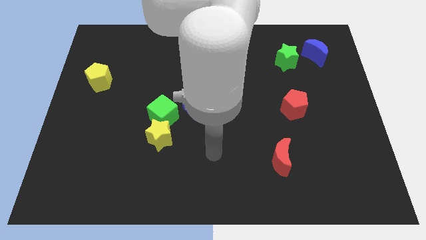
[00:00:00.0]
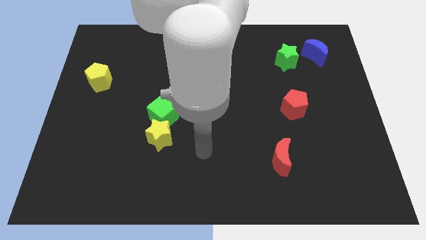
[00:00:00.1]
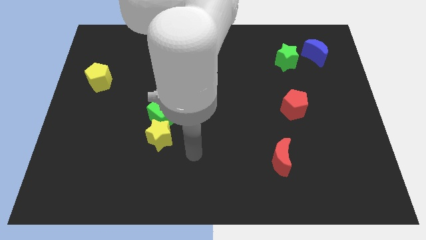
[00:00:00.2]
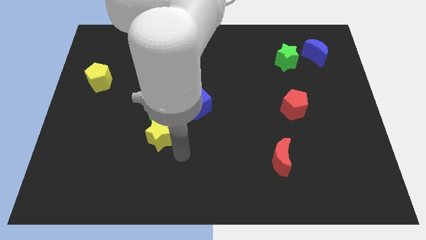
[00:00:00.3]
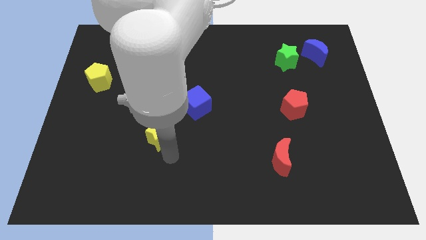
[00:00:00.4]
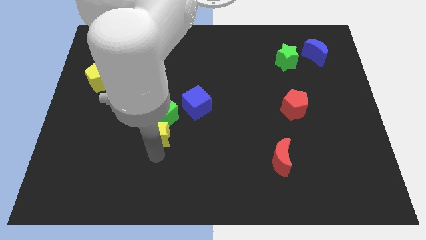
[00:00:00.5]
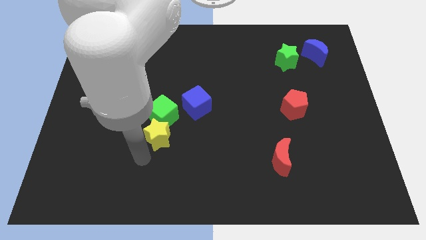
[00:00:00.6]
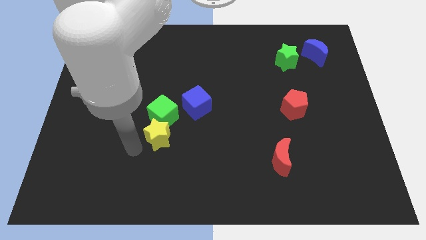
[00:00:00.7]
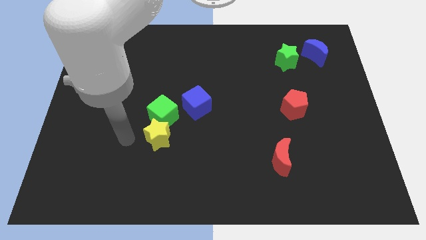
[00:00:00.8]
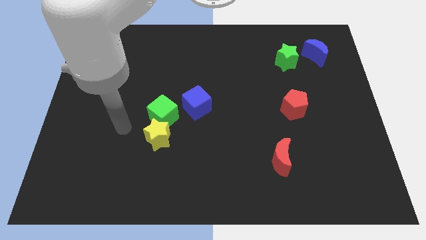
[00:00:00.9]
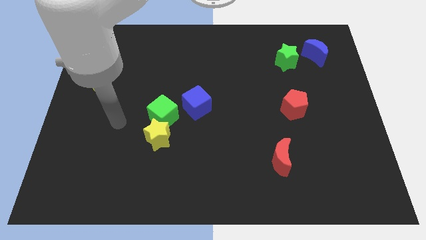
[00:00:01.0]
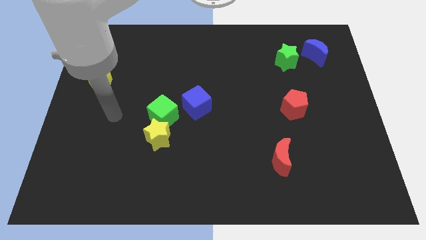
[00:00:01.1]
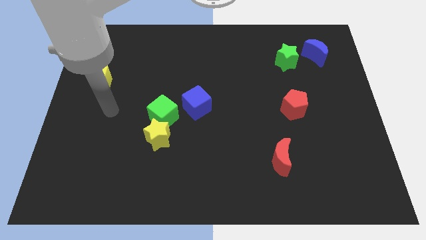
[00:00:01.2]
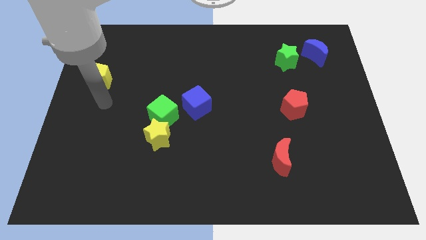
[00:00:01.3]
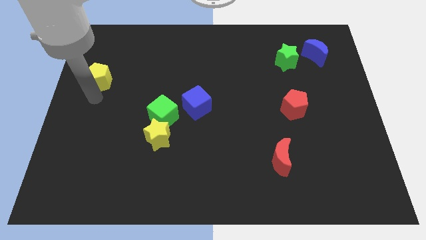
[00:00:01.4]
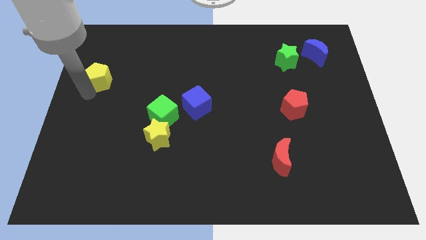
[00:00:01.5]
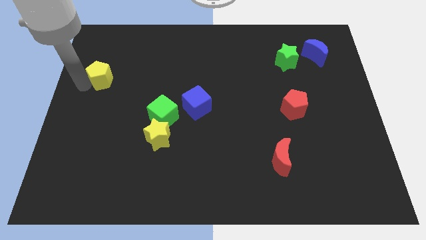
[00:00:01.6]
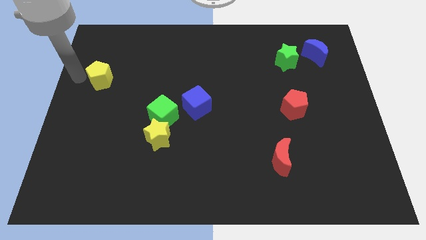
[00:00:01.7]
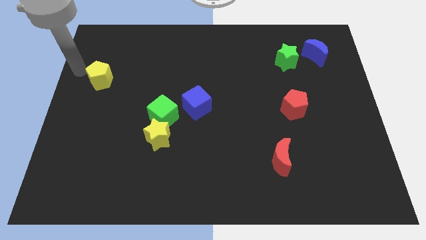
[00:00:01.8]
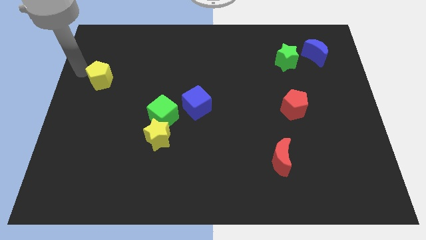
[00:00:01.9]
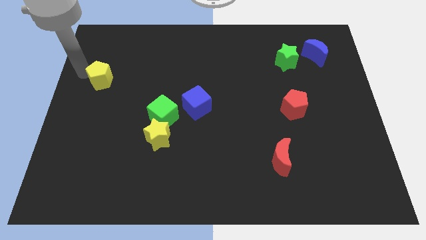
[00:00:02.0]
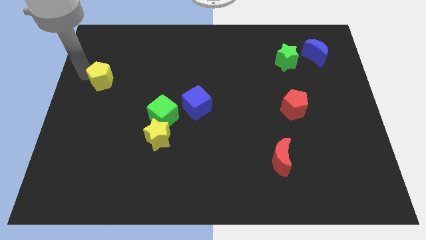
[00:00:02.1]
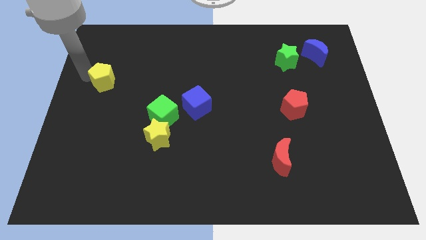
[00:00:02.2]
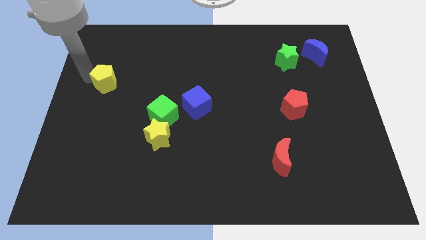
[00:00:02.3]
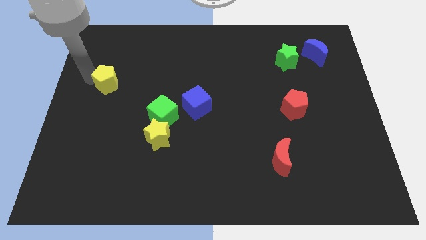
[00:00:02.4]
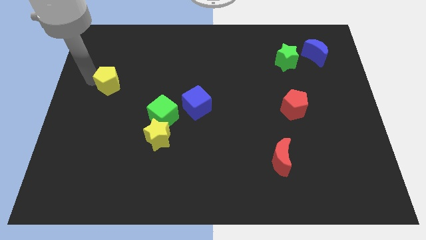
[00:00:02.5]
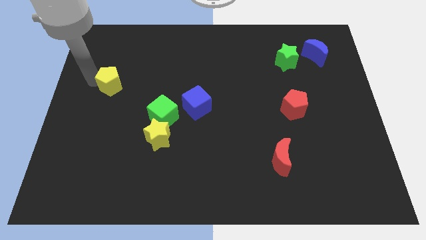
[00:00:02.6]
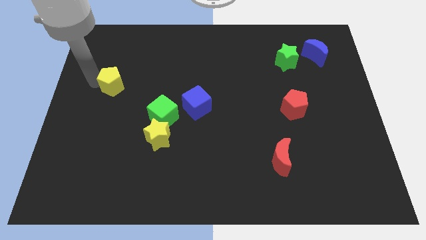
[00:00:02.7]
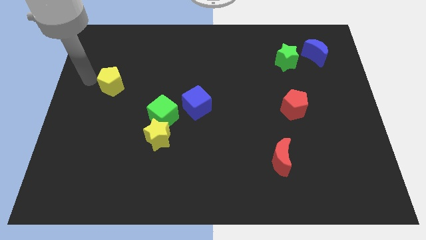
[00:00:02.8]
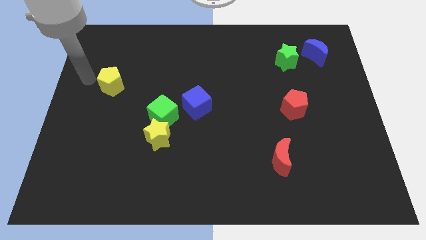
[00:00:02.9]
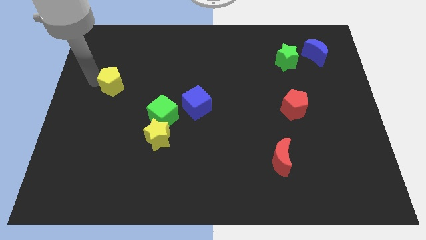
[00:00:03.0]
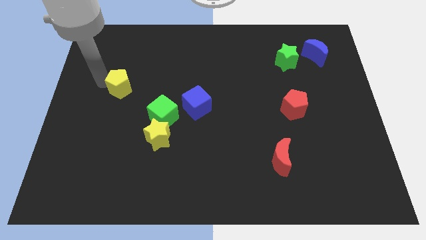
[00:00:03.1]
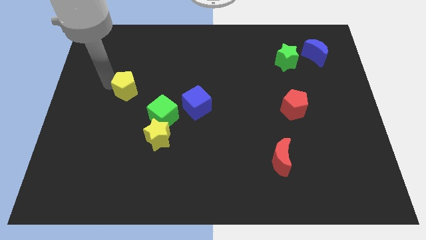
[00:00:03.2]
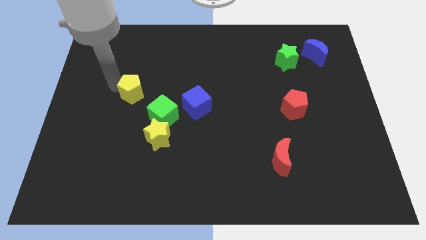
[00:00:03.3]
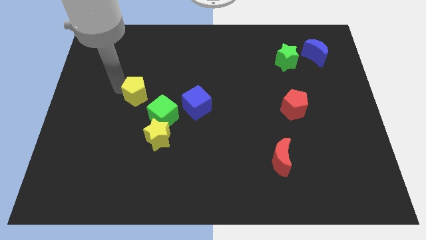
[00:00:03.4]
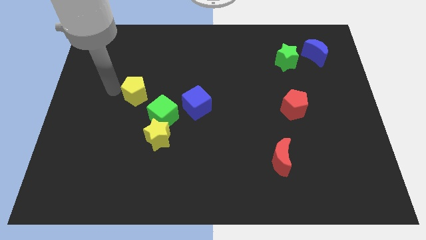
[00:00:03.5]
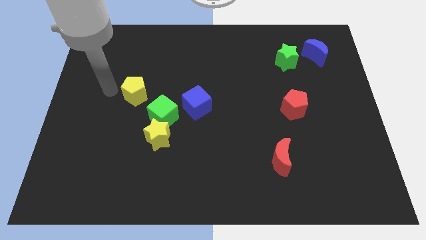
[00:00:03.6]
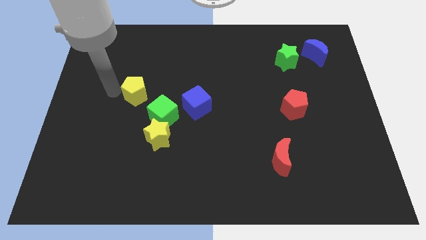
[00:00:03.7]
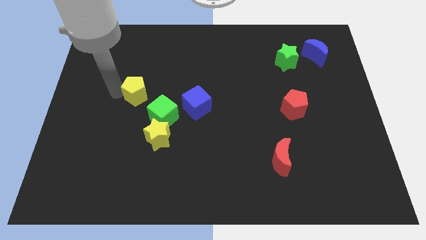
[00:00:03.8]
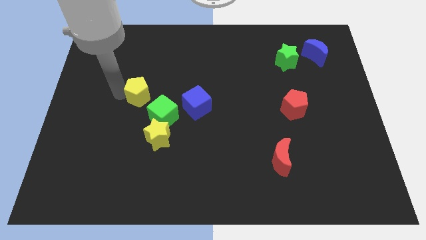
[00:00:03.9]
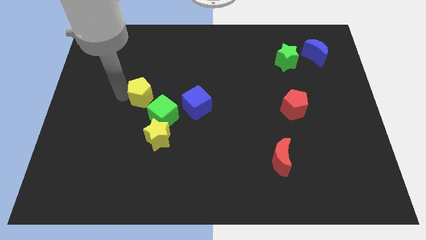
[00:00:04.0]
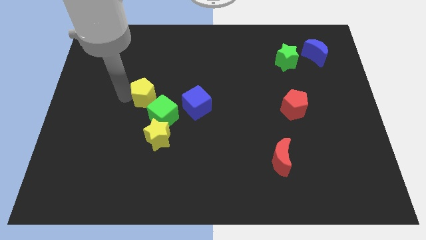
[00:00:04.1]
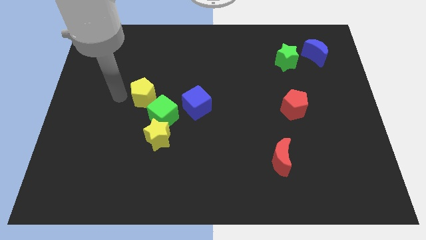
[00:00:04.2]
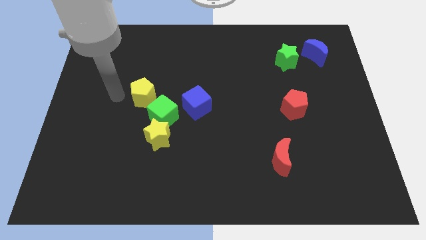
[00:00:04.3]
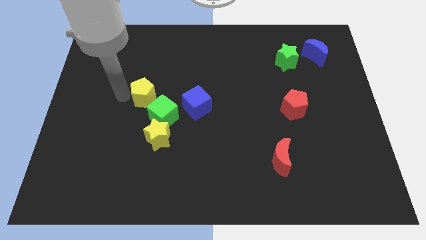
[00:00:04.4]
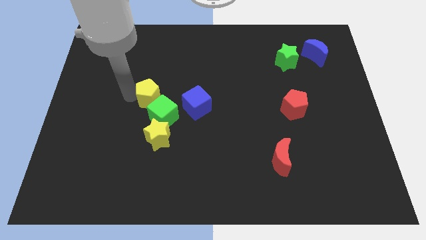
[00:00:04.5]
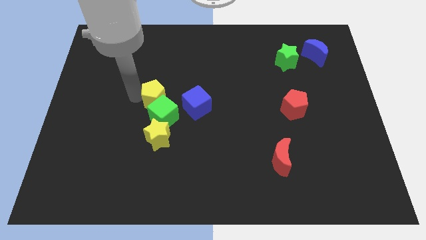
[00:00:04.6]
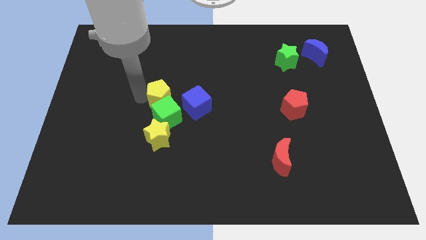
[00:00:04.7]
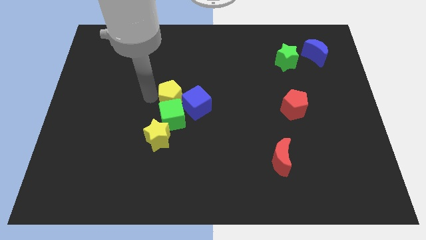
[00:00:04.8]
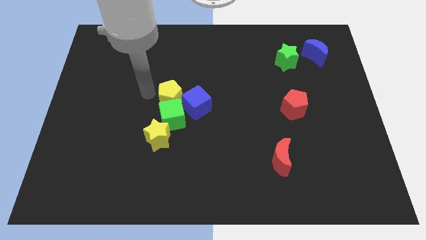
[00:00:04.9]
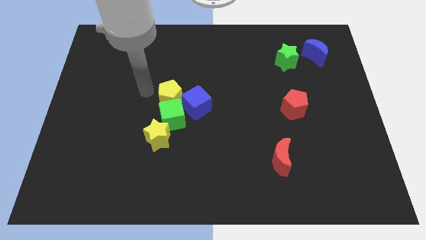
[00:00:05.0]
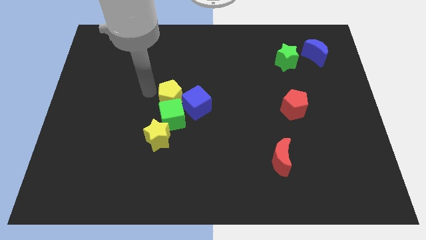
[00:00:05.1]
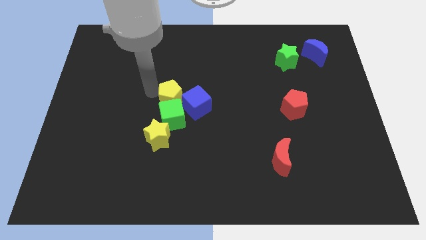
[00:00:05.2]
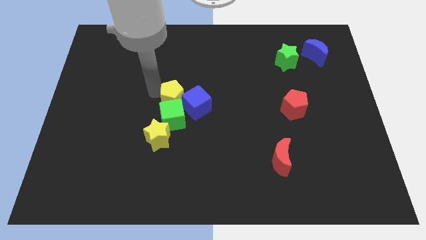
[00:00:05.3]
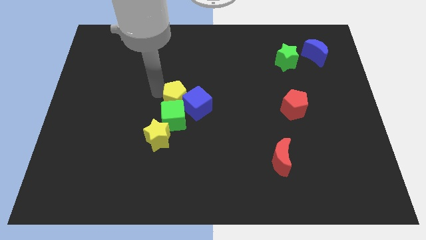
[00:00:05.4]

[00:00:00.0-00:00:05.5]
push the yellow pentagon next to the blue cube

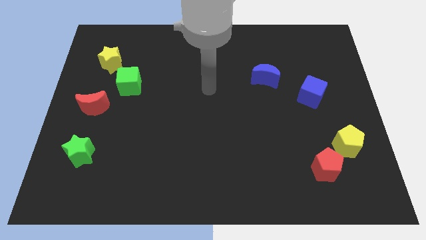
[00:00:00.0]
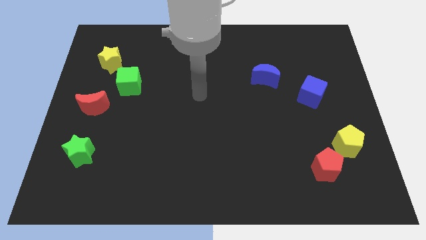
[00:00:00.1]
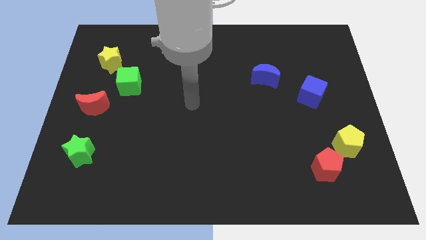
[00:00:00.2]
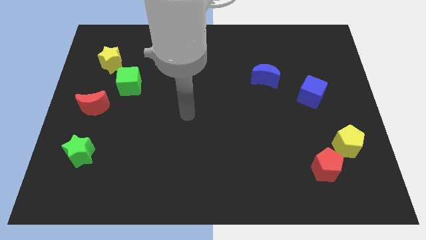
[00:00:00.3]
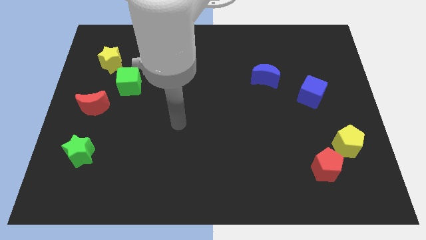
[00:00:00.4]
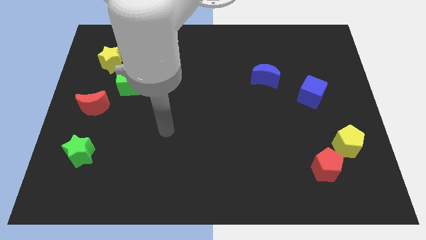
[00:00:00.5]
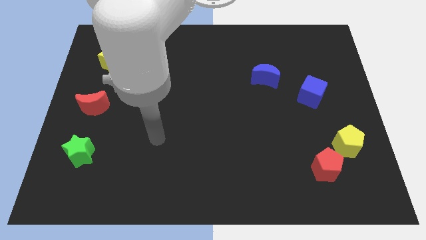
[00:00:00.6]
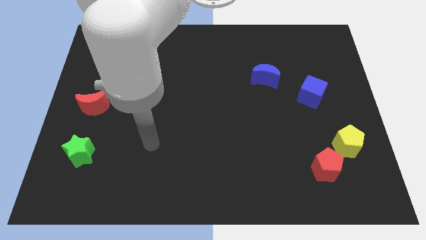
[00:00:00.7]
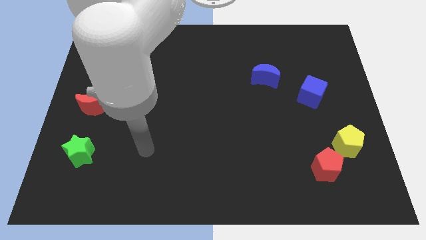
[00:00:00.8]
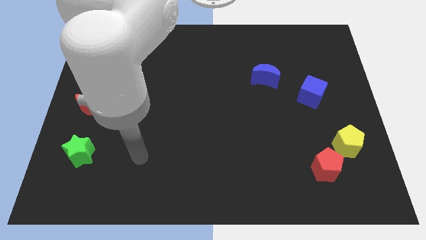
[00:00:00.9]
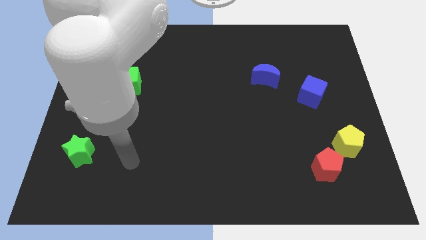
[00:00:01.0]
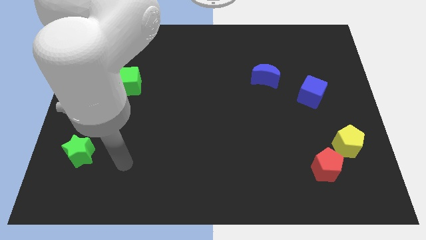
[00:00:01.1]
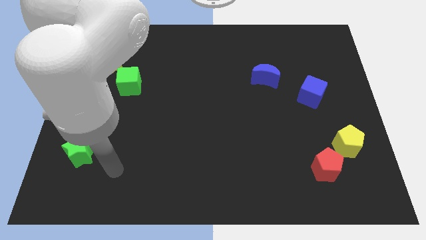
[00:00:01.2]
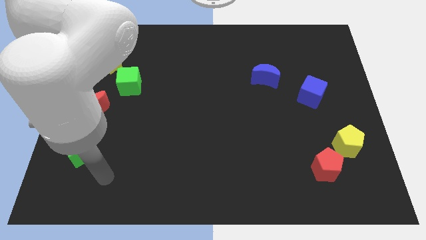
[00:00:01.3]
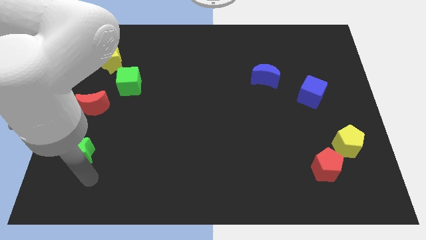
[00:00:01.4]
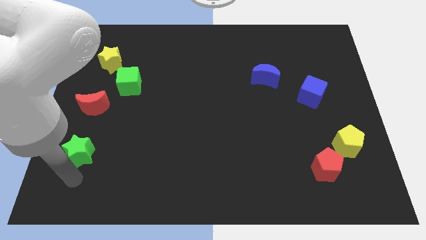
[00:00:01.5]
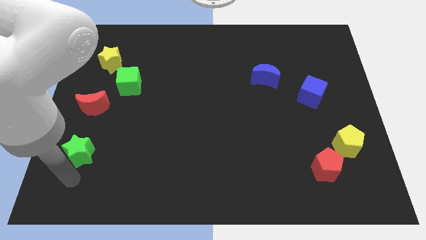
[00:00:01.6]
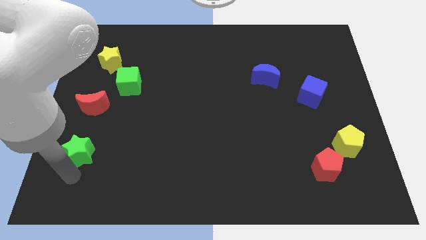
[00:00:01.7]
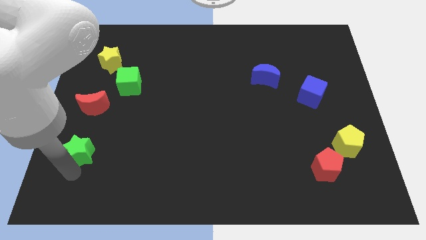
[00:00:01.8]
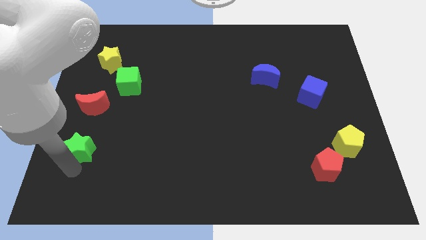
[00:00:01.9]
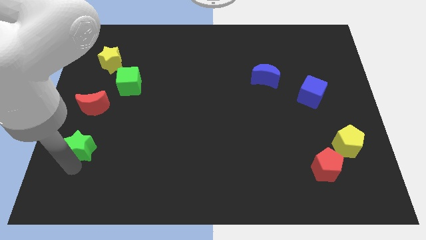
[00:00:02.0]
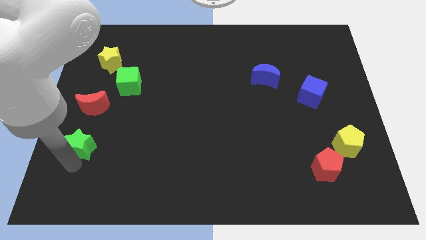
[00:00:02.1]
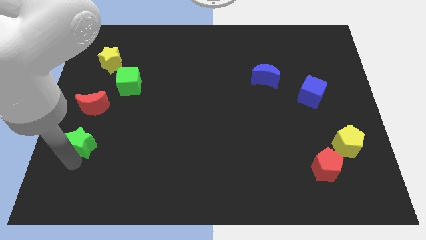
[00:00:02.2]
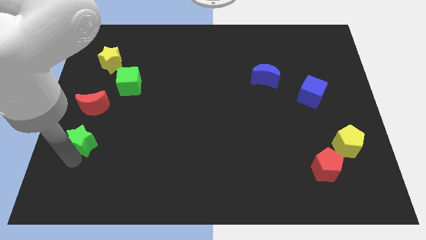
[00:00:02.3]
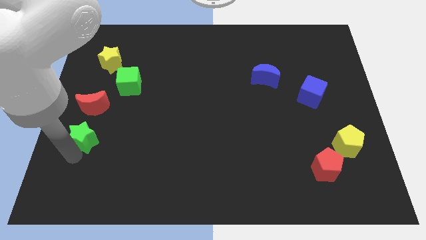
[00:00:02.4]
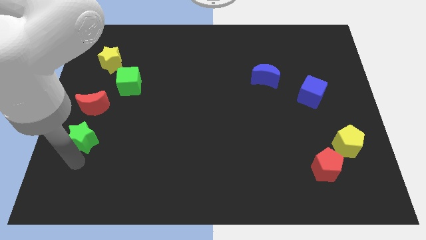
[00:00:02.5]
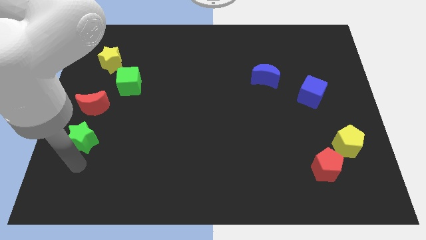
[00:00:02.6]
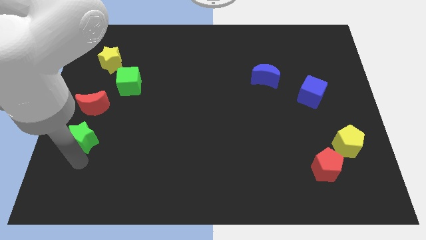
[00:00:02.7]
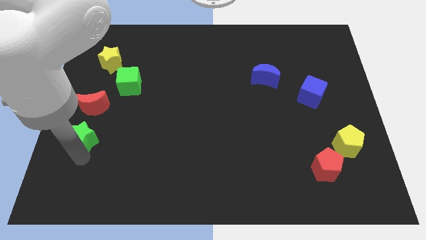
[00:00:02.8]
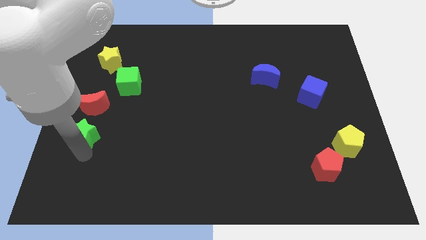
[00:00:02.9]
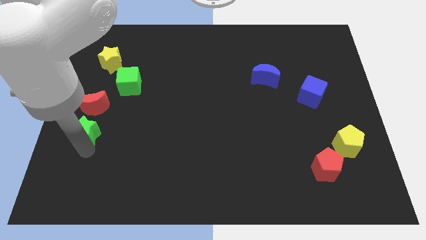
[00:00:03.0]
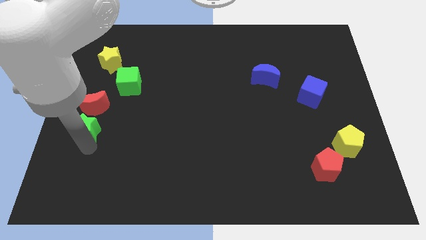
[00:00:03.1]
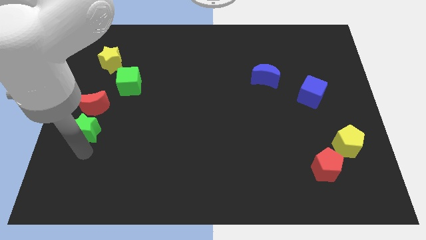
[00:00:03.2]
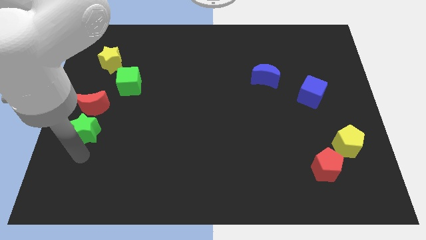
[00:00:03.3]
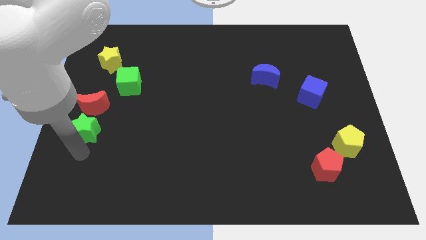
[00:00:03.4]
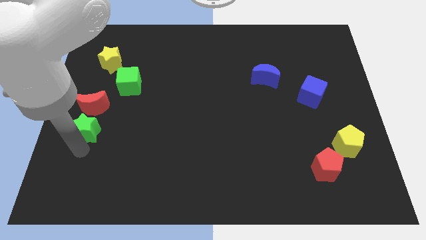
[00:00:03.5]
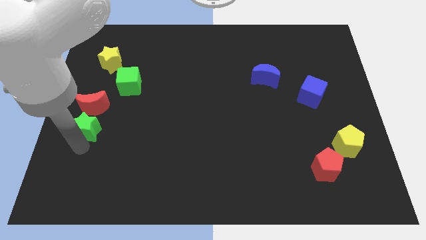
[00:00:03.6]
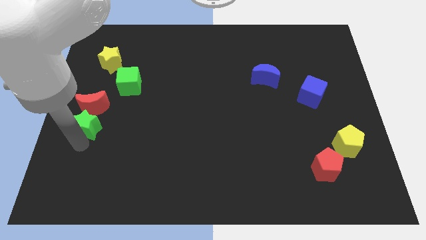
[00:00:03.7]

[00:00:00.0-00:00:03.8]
put the green star towards the red moon
